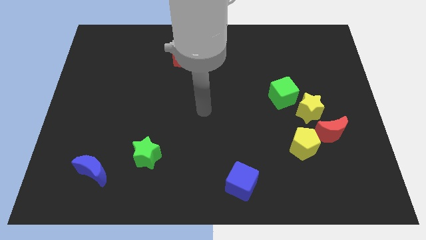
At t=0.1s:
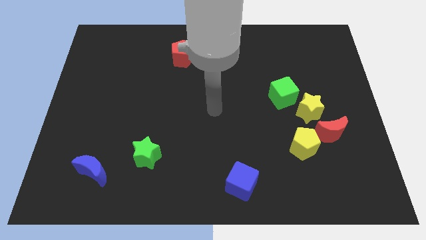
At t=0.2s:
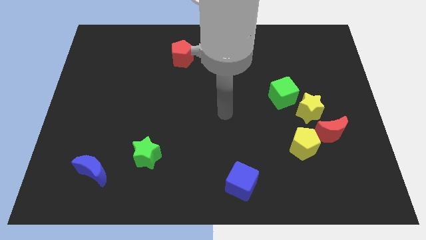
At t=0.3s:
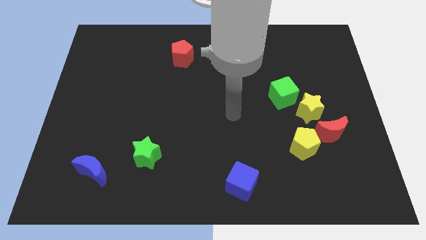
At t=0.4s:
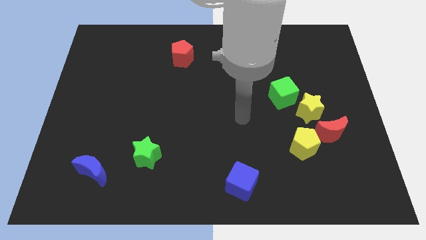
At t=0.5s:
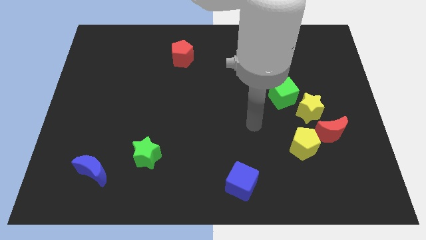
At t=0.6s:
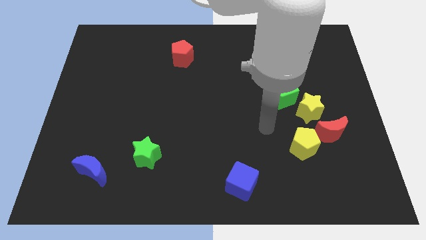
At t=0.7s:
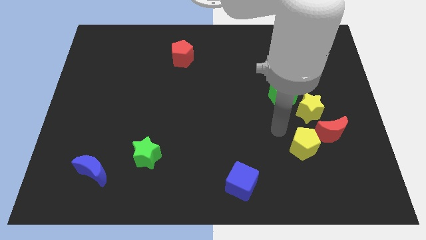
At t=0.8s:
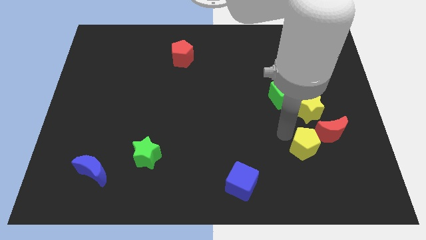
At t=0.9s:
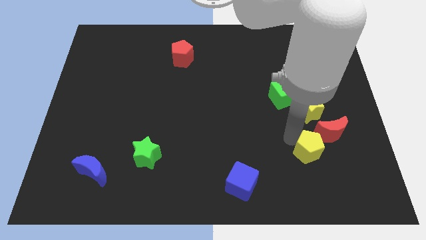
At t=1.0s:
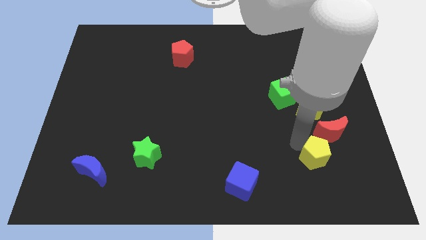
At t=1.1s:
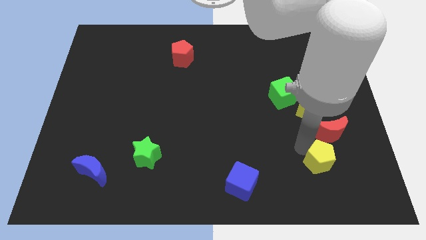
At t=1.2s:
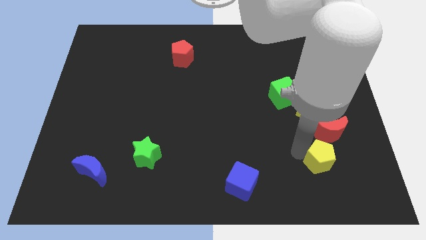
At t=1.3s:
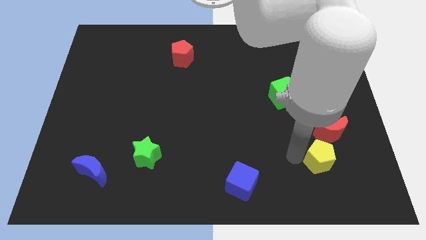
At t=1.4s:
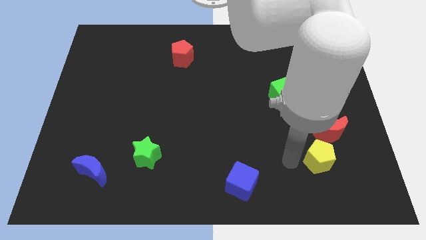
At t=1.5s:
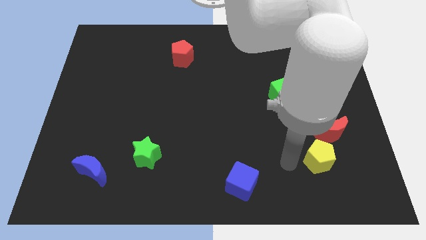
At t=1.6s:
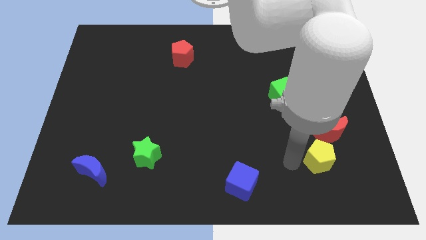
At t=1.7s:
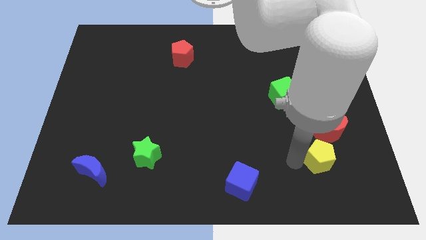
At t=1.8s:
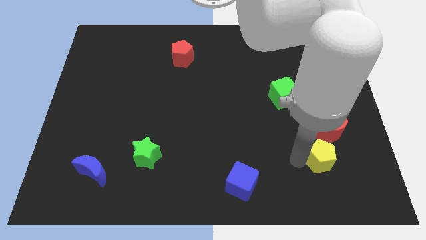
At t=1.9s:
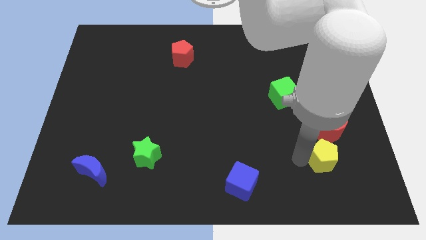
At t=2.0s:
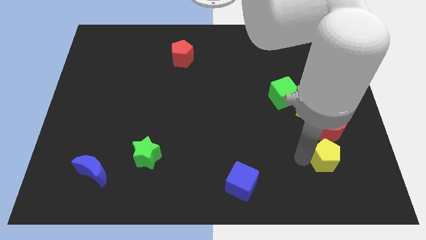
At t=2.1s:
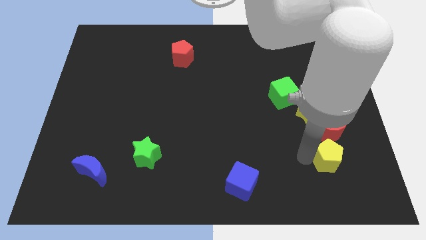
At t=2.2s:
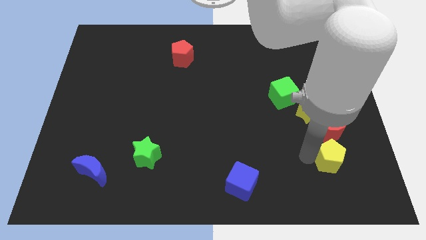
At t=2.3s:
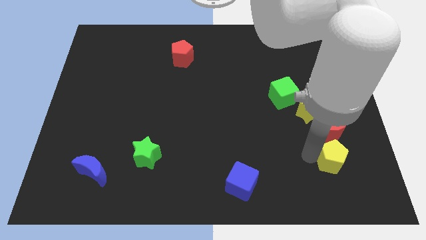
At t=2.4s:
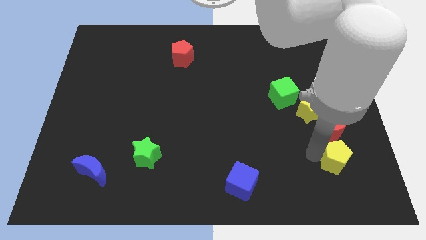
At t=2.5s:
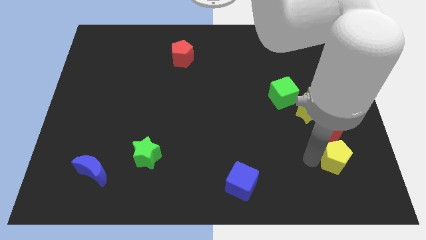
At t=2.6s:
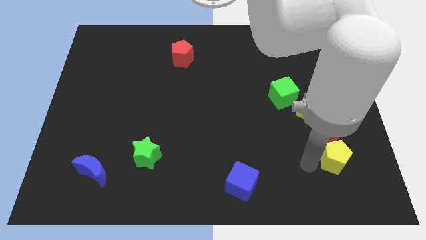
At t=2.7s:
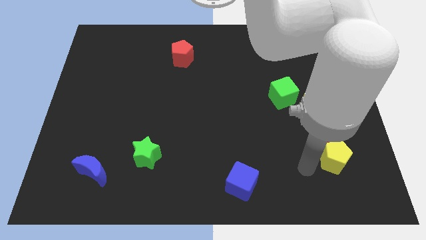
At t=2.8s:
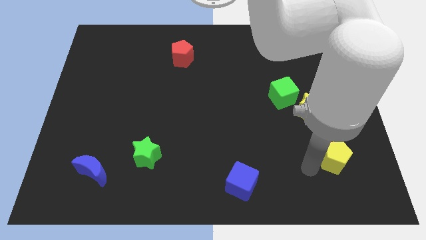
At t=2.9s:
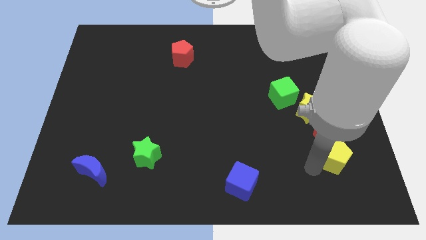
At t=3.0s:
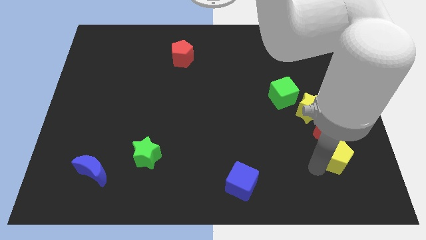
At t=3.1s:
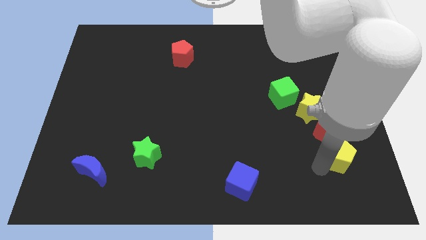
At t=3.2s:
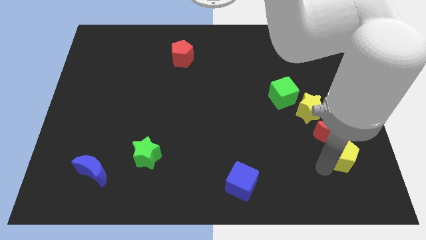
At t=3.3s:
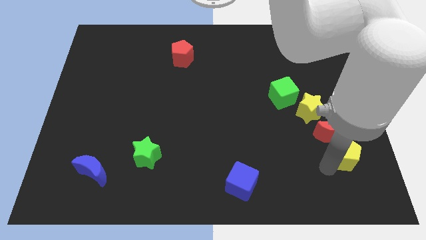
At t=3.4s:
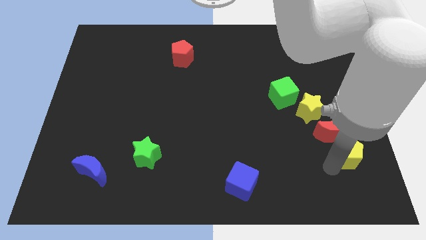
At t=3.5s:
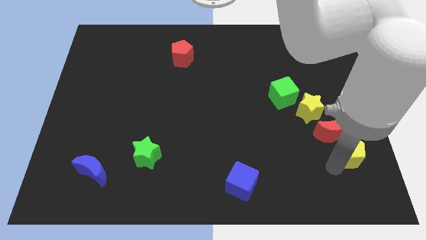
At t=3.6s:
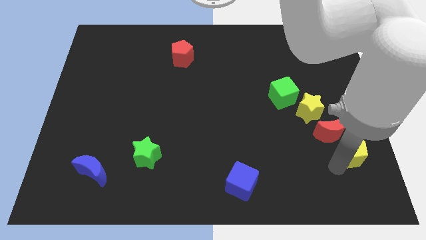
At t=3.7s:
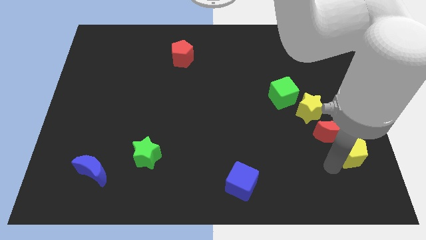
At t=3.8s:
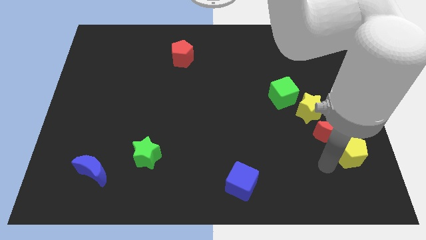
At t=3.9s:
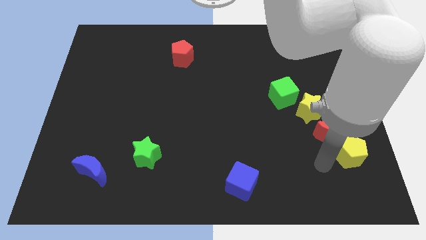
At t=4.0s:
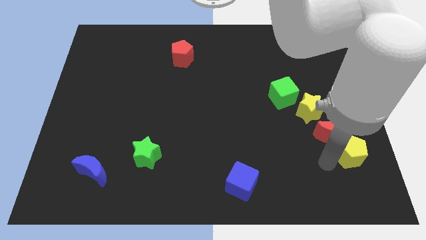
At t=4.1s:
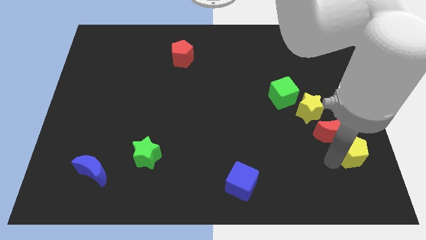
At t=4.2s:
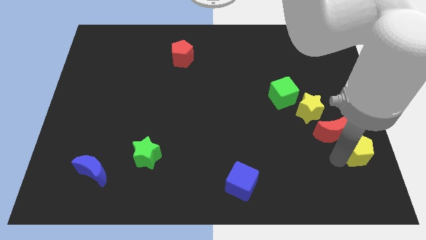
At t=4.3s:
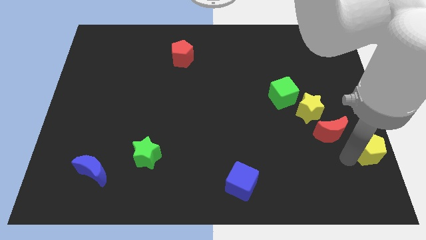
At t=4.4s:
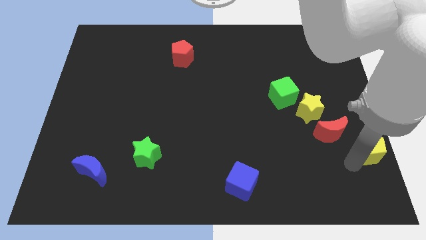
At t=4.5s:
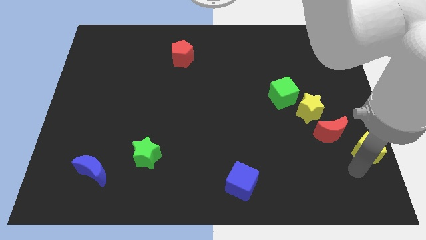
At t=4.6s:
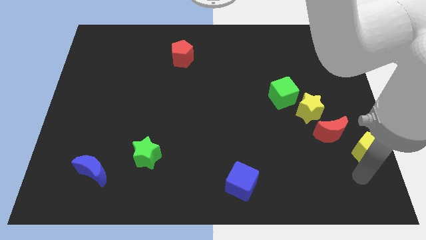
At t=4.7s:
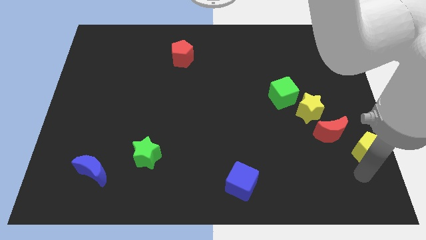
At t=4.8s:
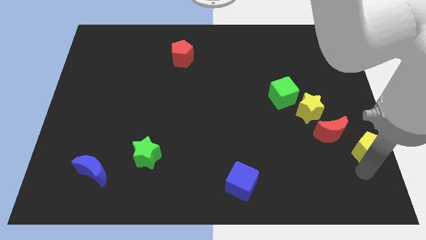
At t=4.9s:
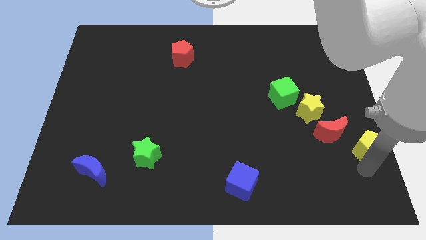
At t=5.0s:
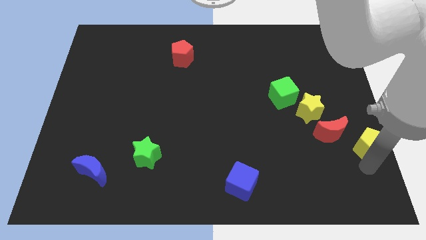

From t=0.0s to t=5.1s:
push the yellow pentagon to the center right

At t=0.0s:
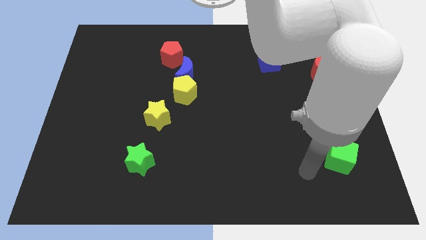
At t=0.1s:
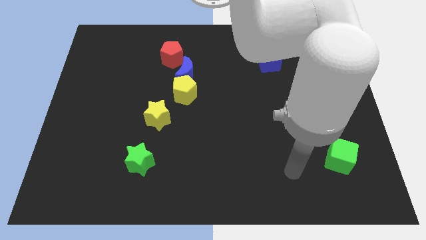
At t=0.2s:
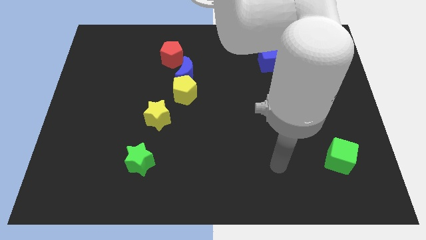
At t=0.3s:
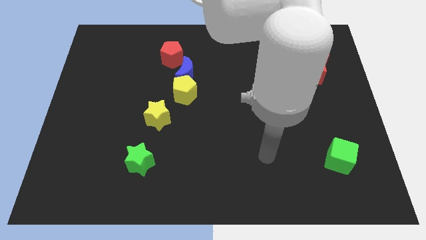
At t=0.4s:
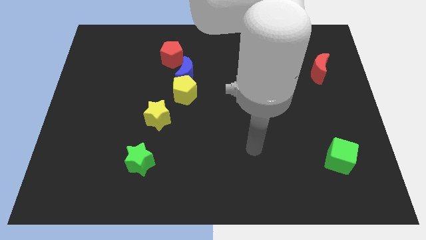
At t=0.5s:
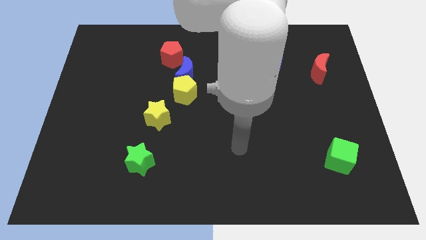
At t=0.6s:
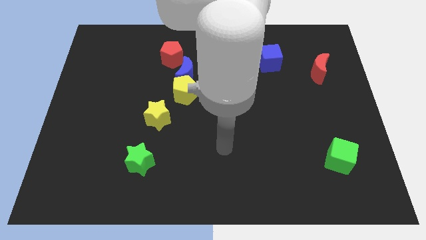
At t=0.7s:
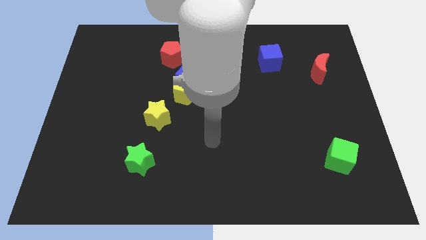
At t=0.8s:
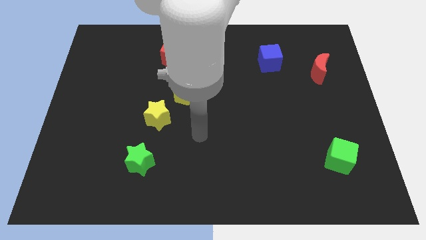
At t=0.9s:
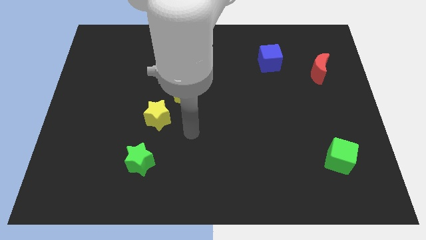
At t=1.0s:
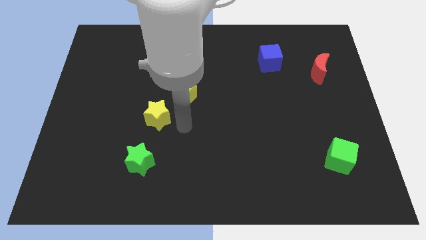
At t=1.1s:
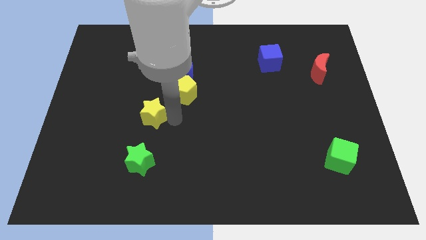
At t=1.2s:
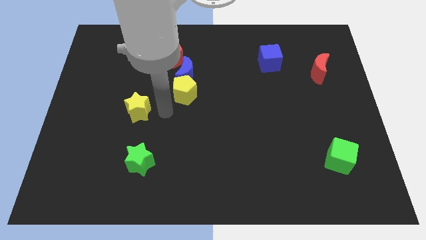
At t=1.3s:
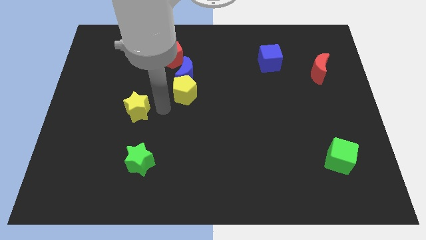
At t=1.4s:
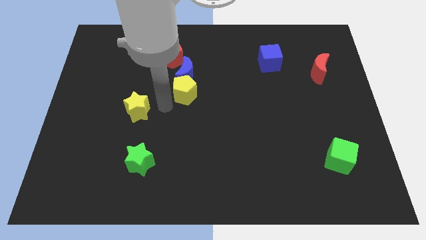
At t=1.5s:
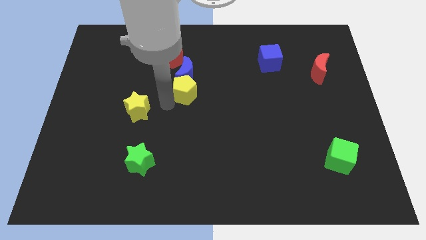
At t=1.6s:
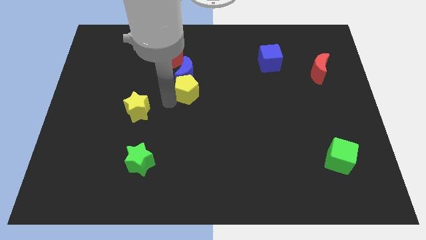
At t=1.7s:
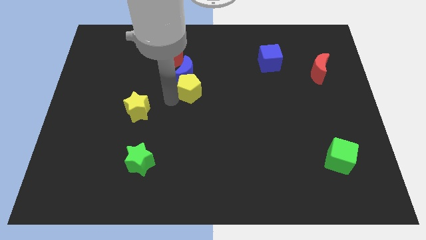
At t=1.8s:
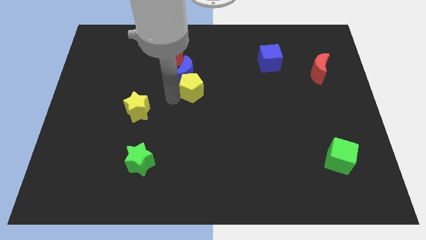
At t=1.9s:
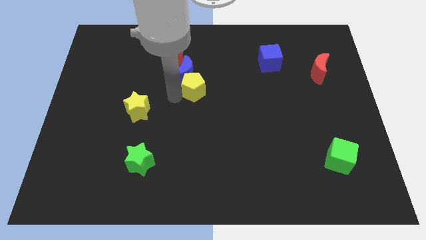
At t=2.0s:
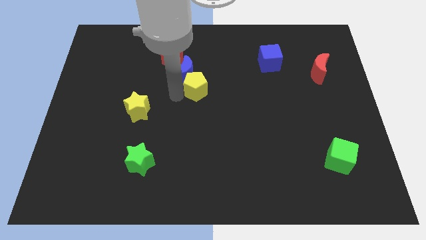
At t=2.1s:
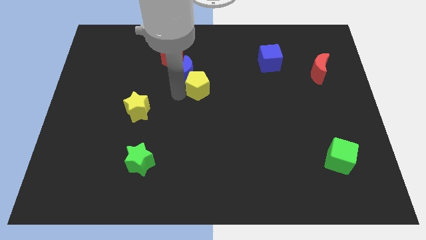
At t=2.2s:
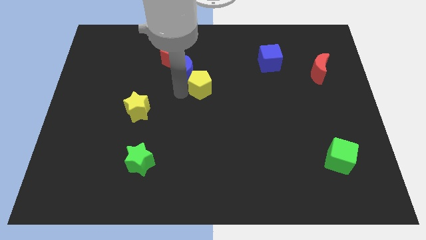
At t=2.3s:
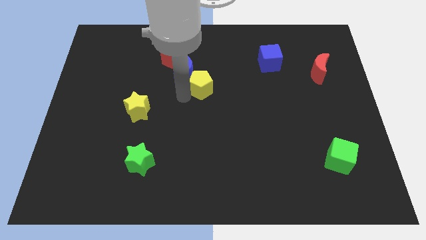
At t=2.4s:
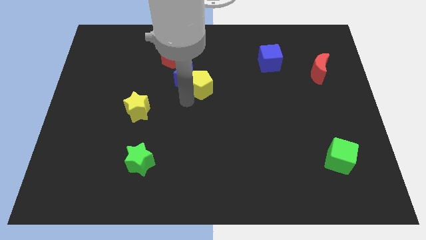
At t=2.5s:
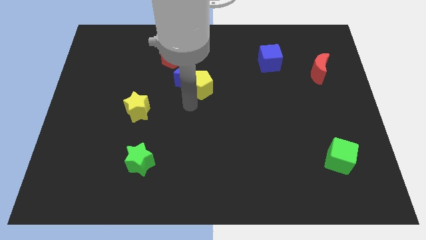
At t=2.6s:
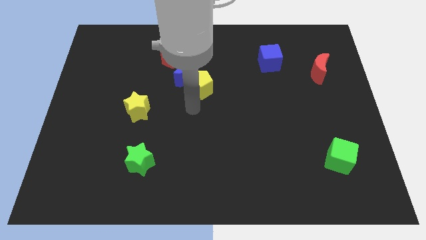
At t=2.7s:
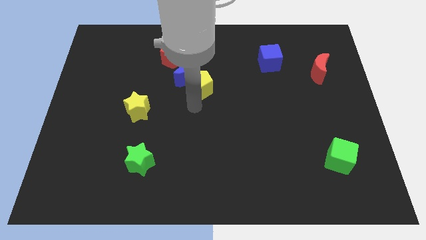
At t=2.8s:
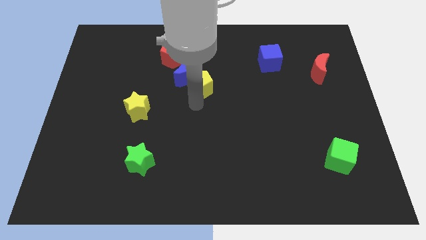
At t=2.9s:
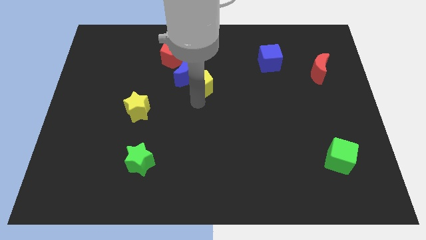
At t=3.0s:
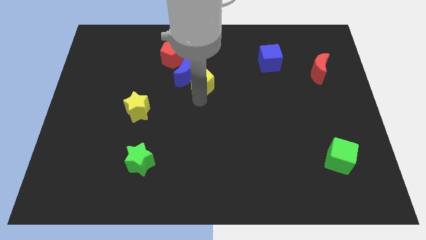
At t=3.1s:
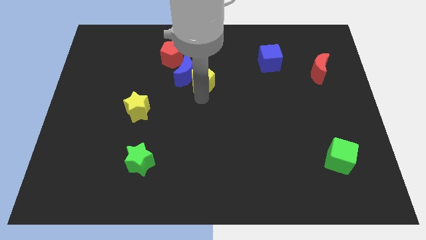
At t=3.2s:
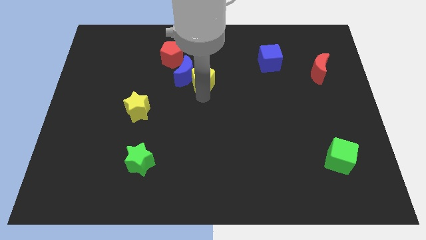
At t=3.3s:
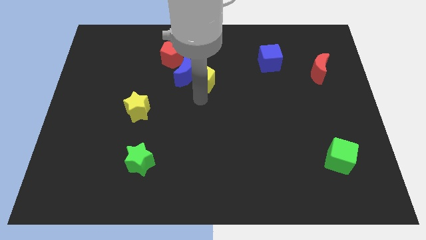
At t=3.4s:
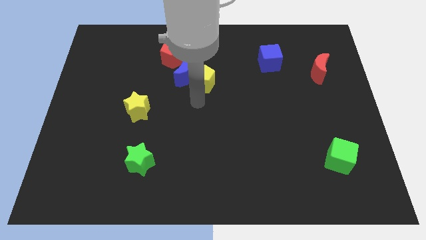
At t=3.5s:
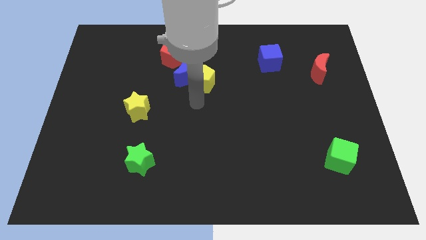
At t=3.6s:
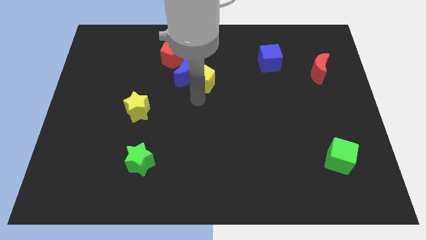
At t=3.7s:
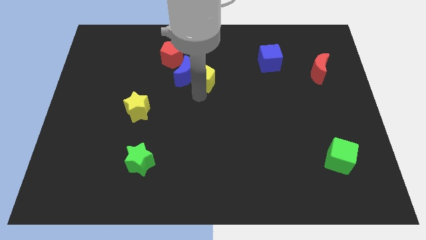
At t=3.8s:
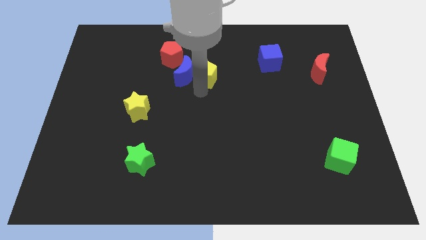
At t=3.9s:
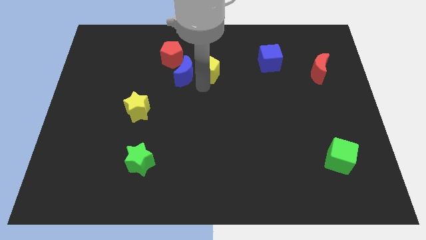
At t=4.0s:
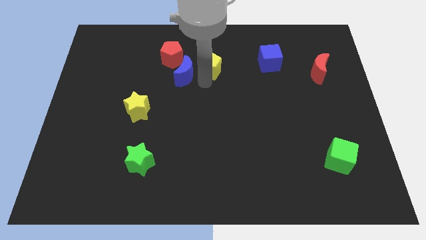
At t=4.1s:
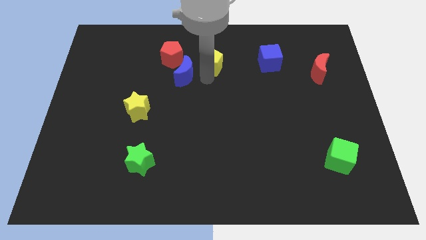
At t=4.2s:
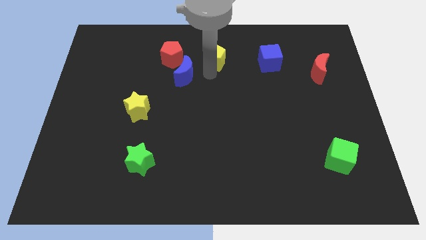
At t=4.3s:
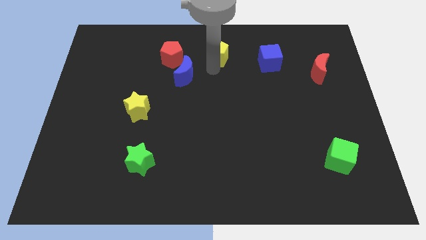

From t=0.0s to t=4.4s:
move the yellow pentagon to the top
